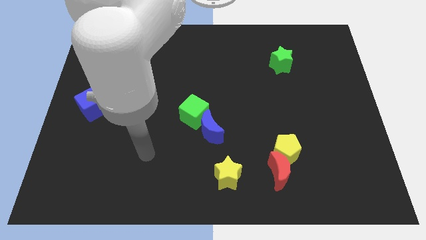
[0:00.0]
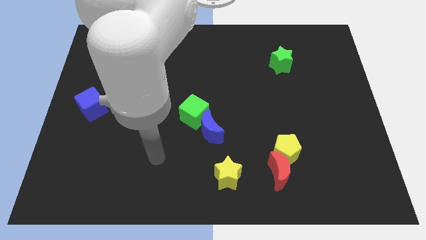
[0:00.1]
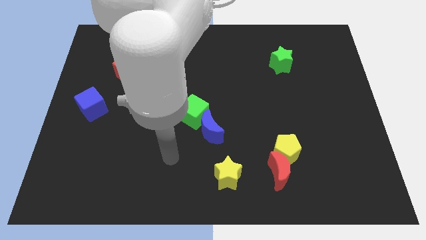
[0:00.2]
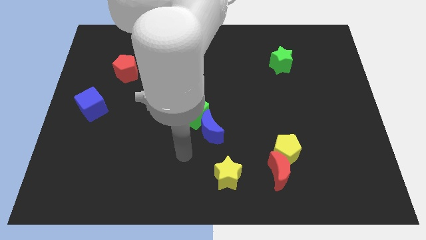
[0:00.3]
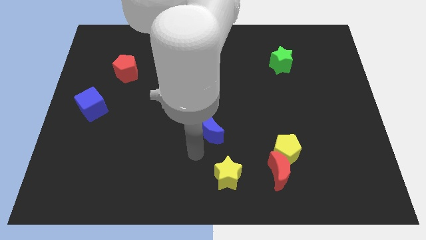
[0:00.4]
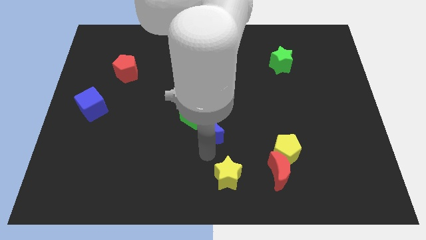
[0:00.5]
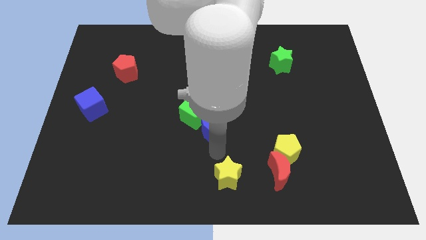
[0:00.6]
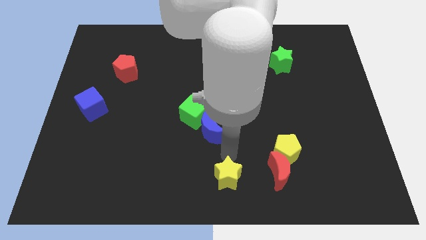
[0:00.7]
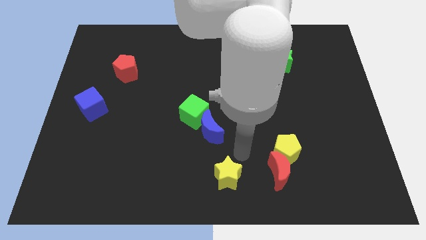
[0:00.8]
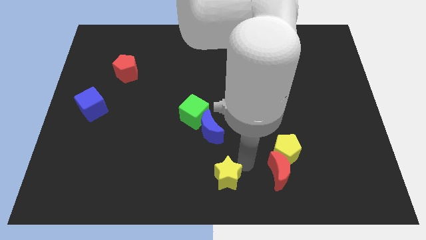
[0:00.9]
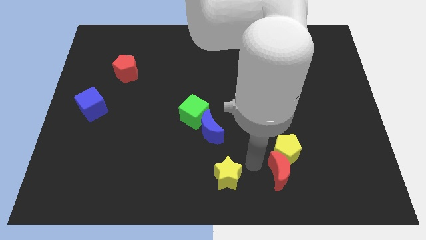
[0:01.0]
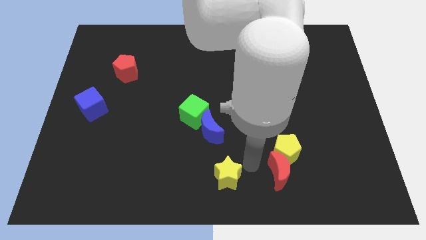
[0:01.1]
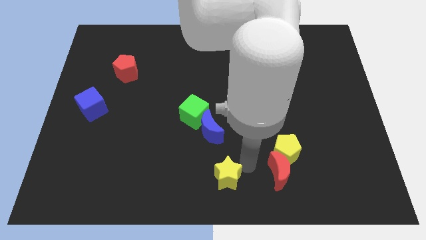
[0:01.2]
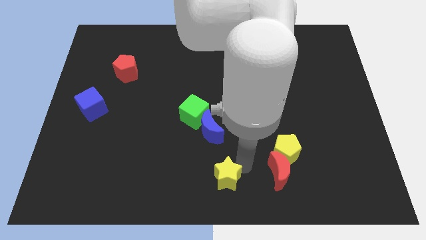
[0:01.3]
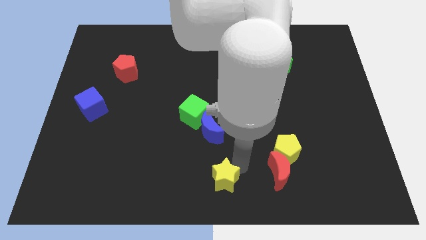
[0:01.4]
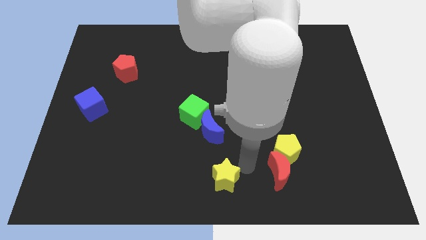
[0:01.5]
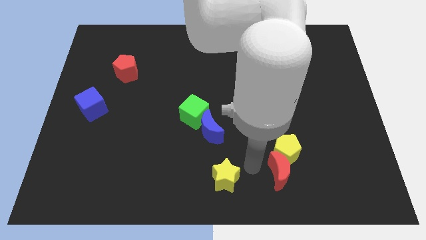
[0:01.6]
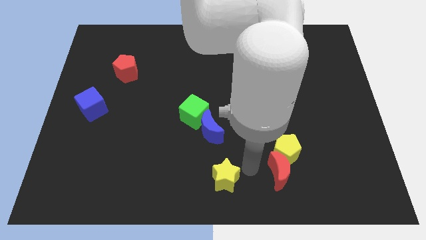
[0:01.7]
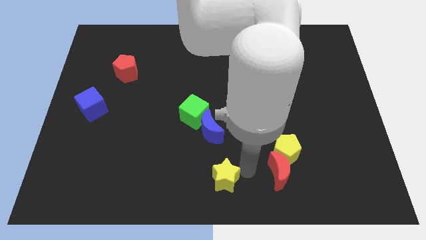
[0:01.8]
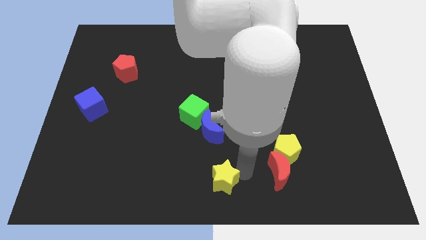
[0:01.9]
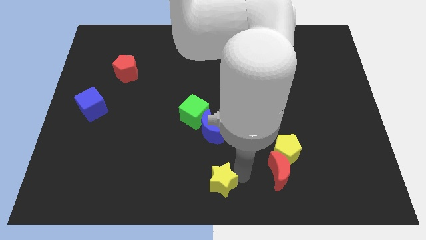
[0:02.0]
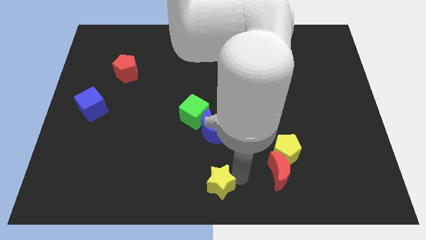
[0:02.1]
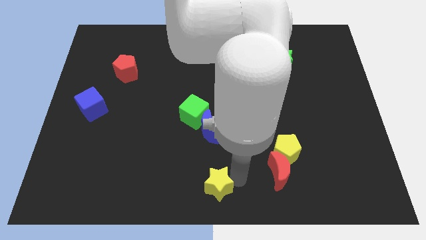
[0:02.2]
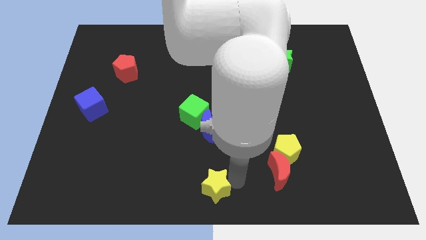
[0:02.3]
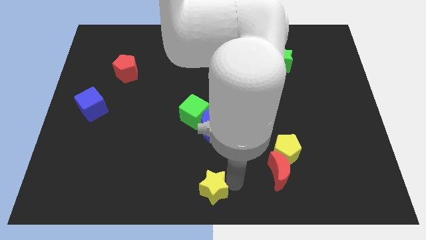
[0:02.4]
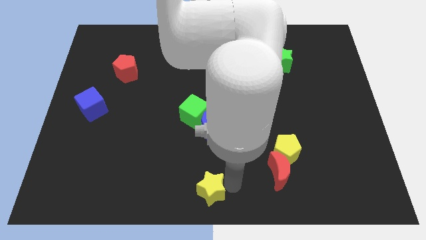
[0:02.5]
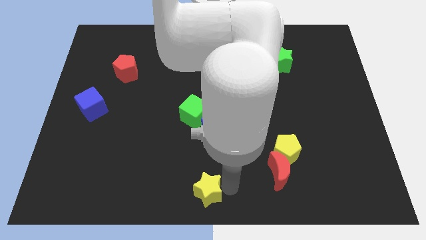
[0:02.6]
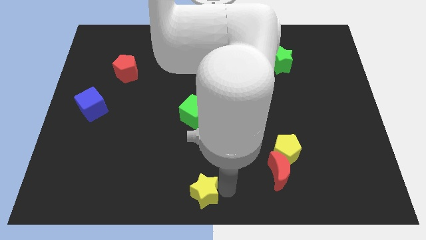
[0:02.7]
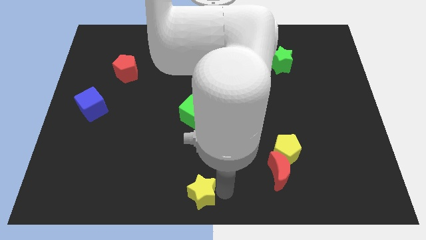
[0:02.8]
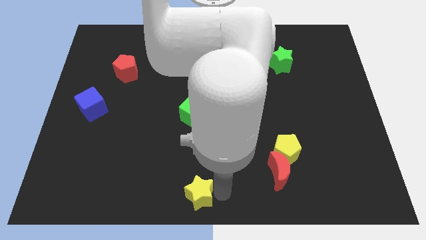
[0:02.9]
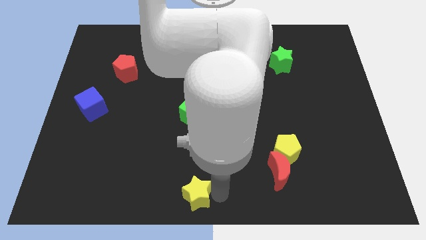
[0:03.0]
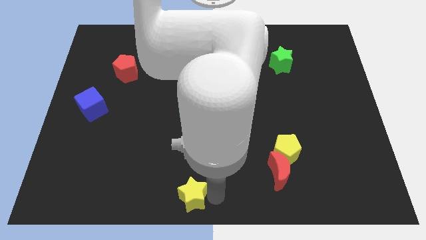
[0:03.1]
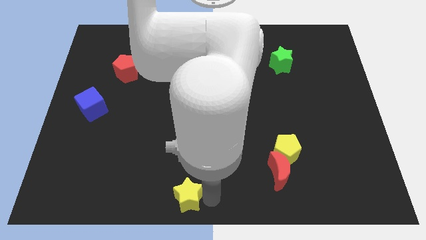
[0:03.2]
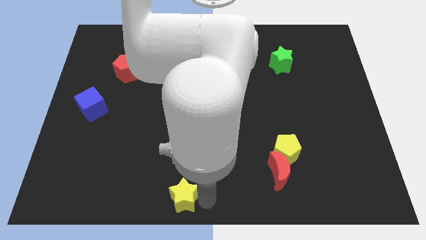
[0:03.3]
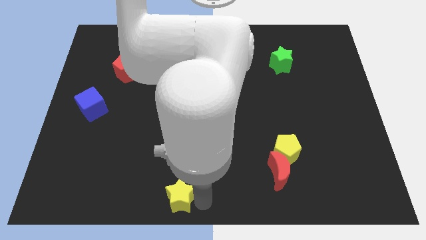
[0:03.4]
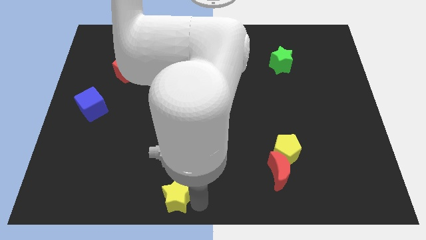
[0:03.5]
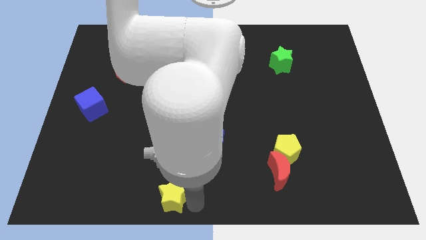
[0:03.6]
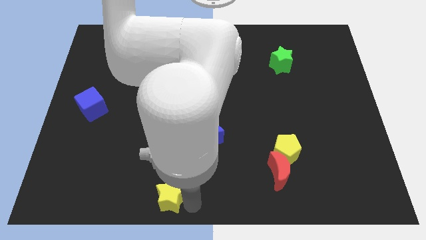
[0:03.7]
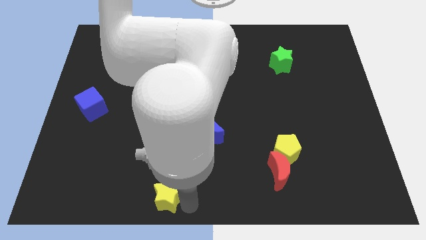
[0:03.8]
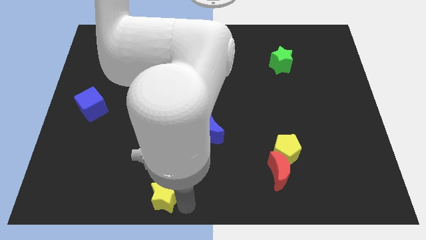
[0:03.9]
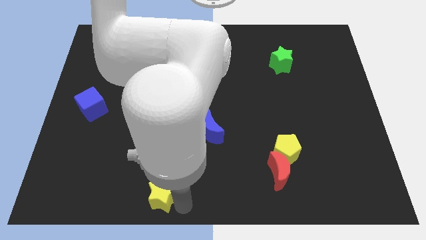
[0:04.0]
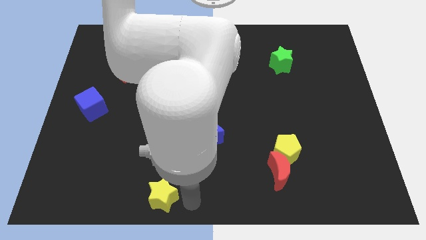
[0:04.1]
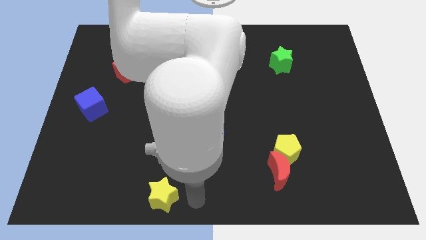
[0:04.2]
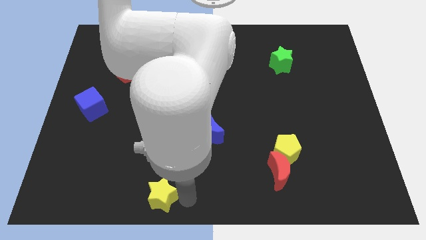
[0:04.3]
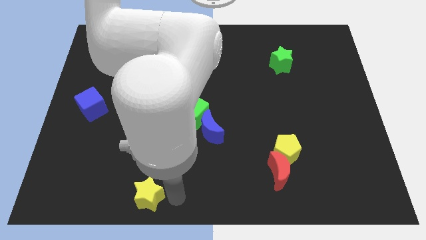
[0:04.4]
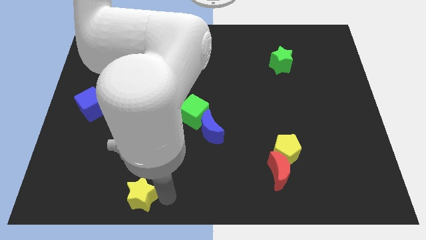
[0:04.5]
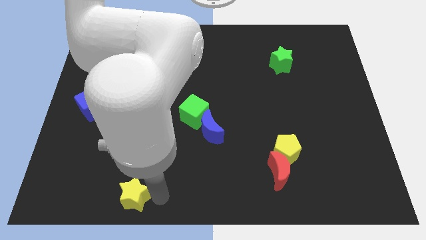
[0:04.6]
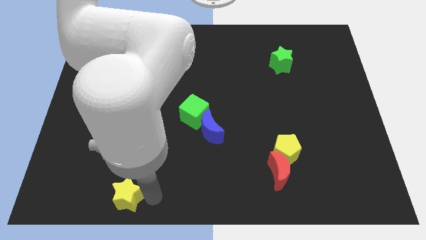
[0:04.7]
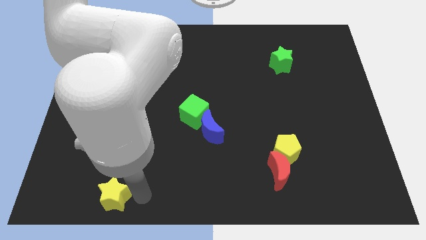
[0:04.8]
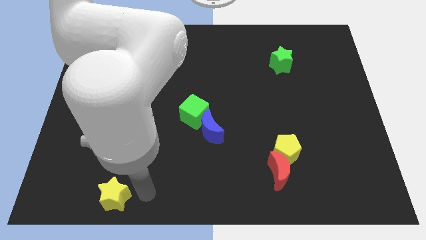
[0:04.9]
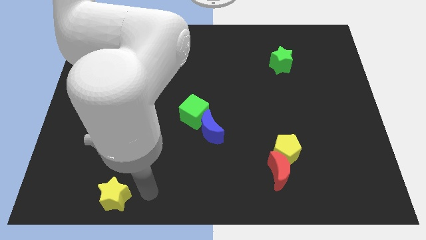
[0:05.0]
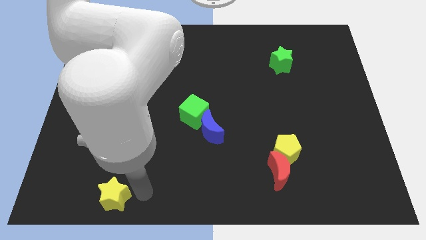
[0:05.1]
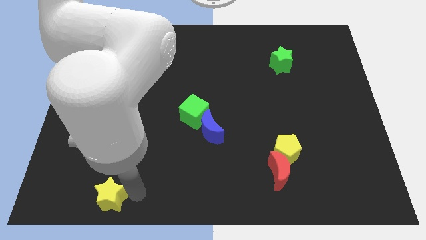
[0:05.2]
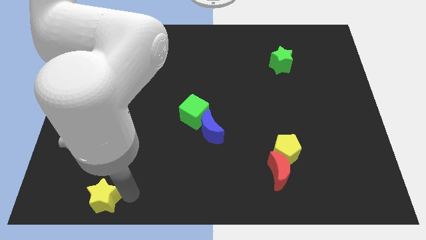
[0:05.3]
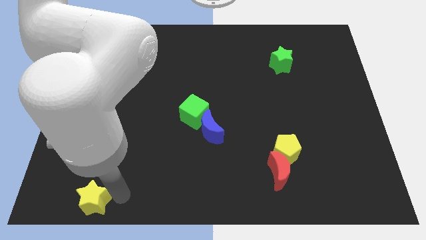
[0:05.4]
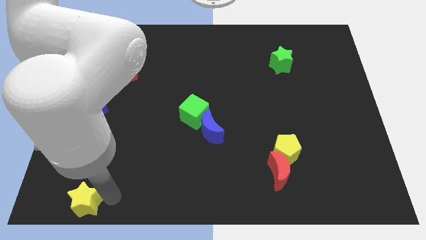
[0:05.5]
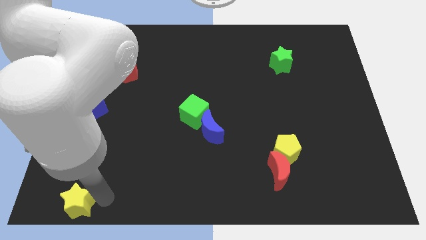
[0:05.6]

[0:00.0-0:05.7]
move the yellow star to the lower left corner
